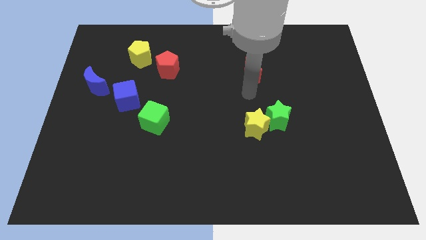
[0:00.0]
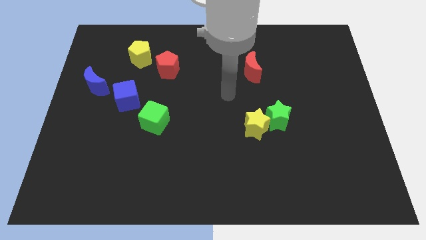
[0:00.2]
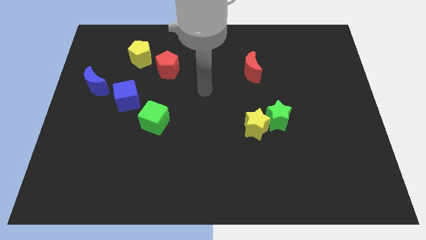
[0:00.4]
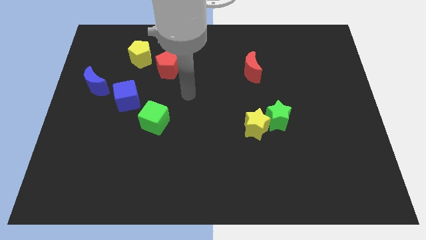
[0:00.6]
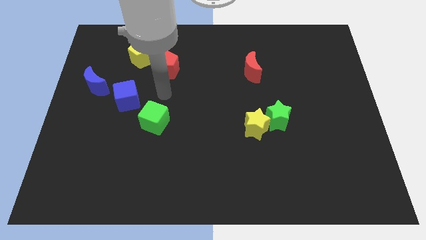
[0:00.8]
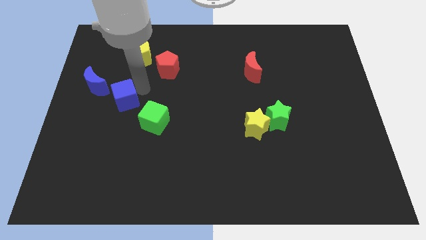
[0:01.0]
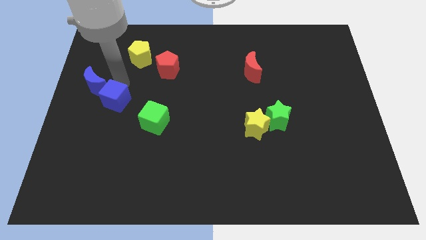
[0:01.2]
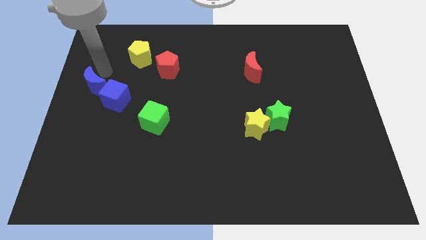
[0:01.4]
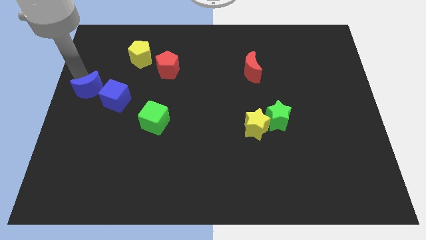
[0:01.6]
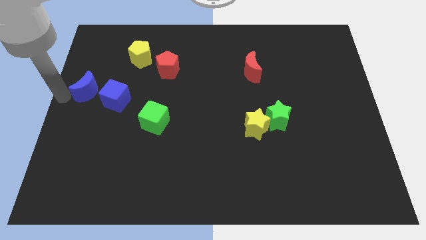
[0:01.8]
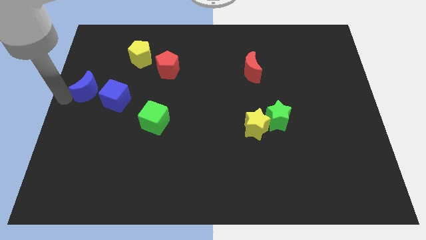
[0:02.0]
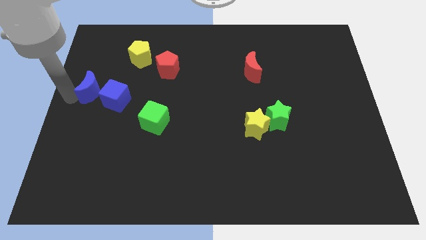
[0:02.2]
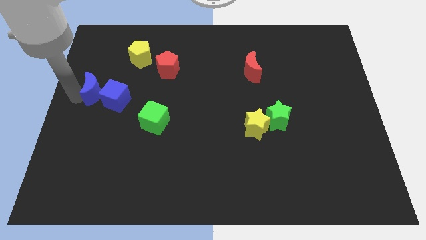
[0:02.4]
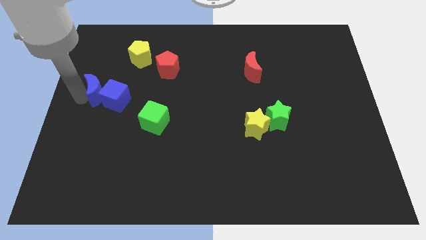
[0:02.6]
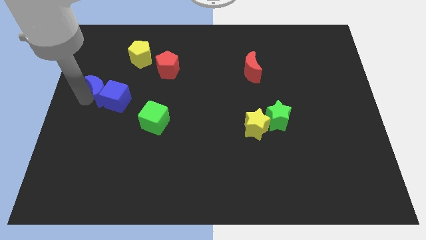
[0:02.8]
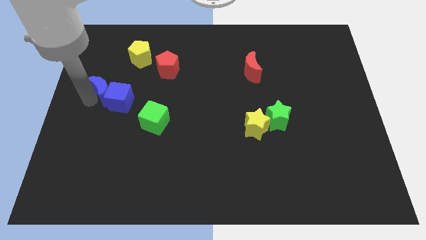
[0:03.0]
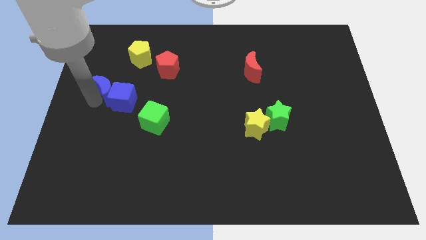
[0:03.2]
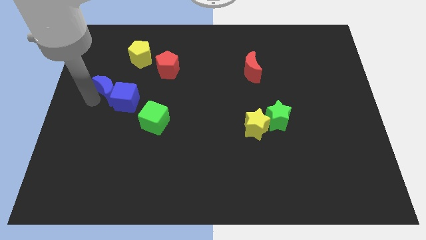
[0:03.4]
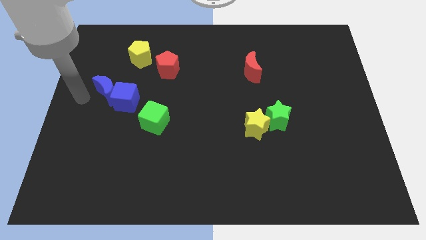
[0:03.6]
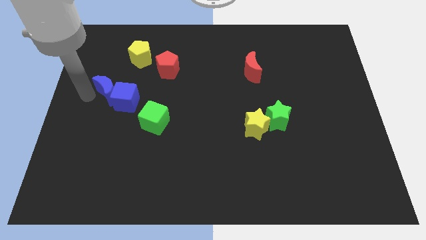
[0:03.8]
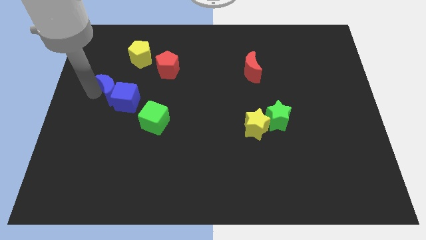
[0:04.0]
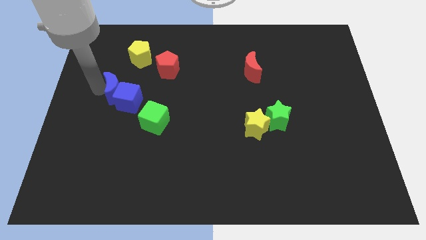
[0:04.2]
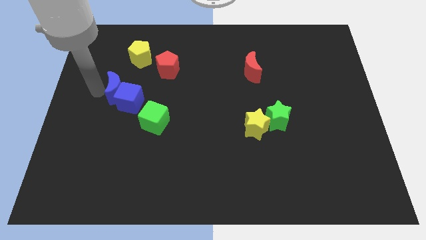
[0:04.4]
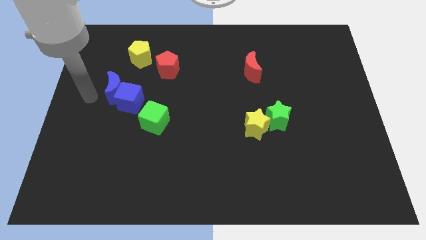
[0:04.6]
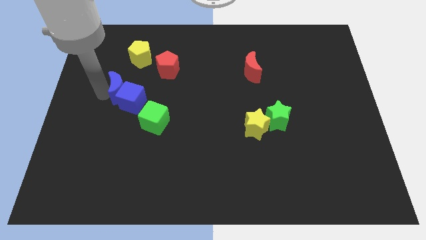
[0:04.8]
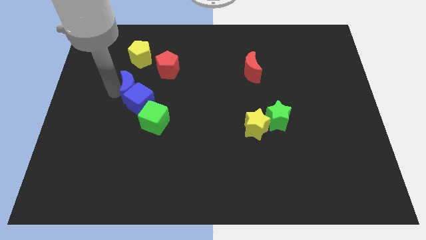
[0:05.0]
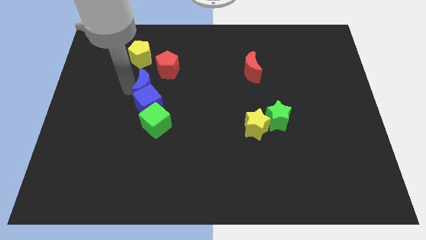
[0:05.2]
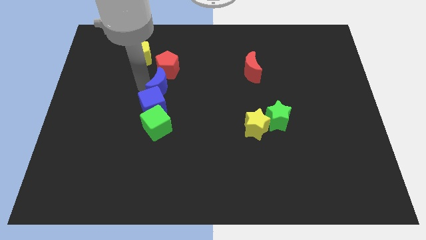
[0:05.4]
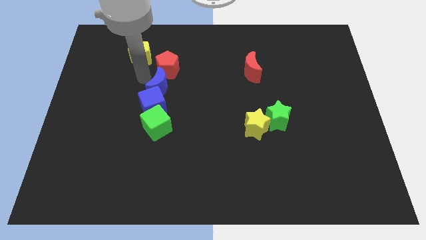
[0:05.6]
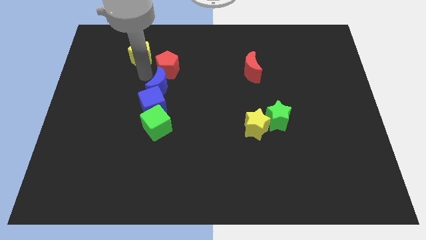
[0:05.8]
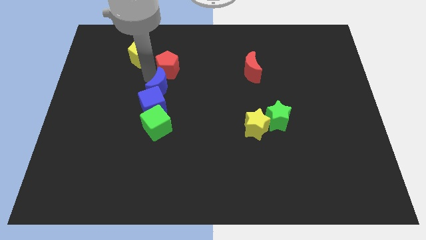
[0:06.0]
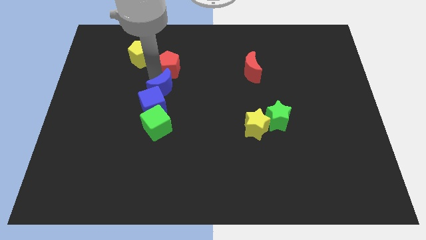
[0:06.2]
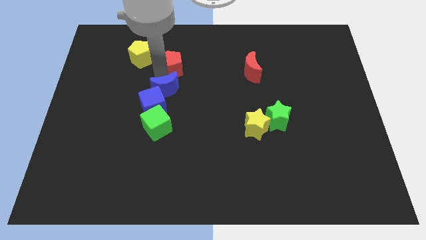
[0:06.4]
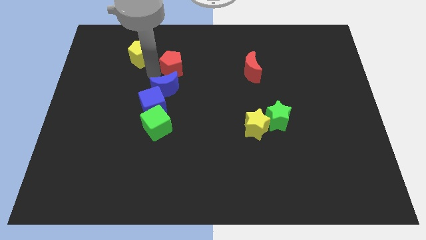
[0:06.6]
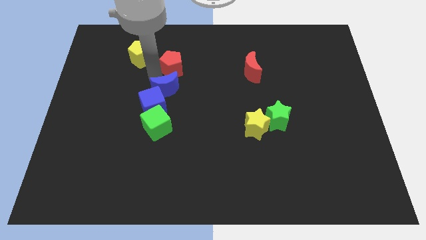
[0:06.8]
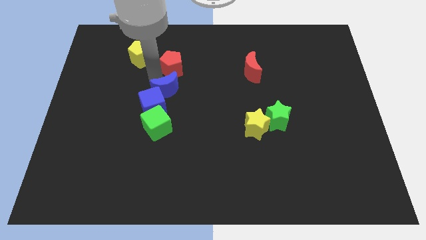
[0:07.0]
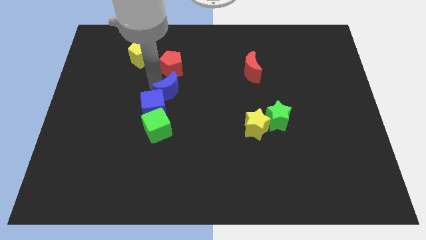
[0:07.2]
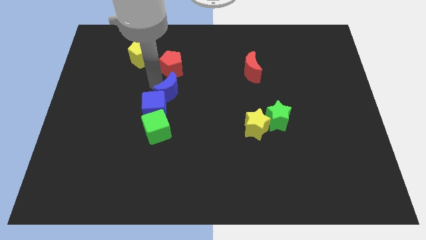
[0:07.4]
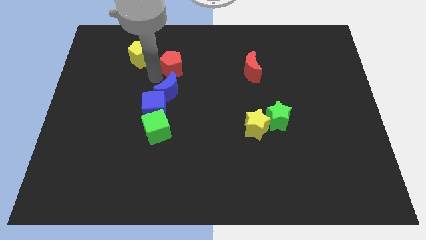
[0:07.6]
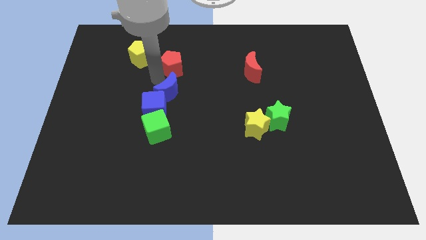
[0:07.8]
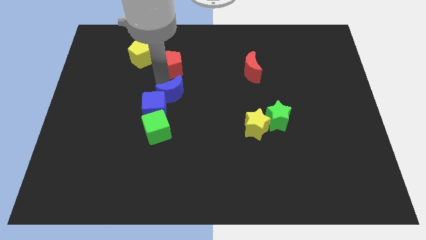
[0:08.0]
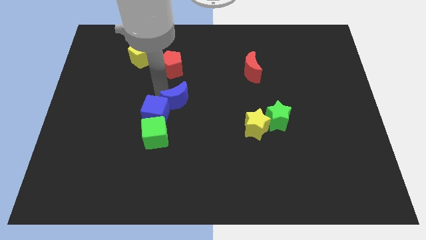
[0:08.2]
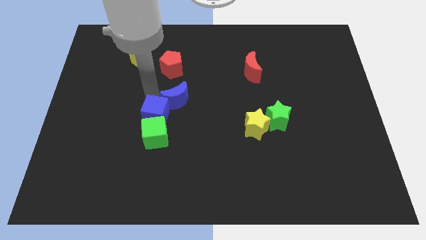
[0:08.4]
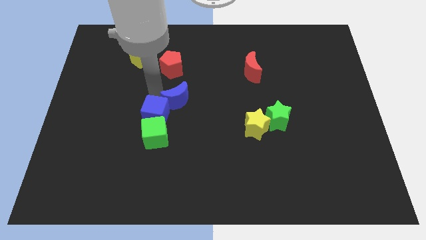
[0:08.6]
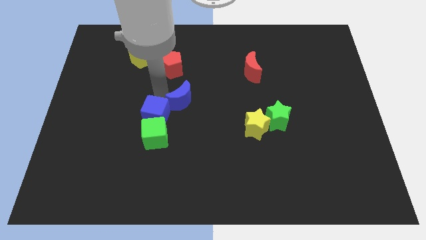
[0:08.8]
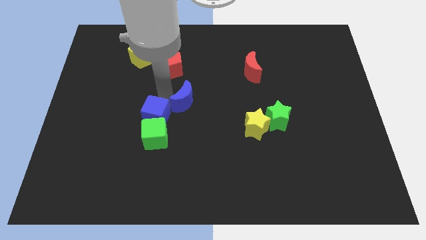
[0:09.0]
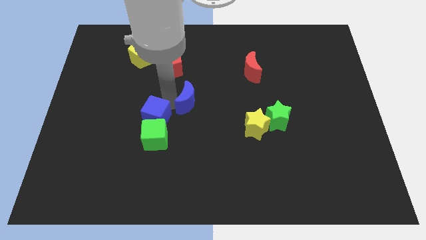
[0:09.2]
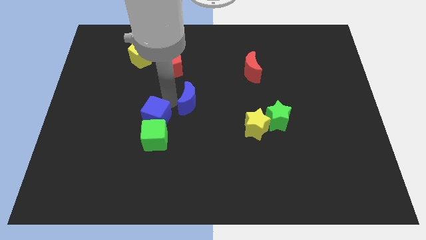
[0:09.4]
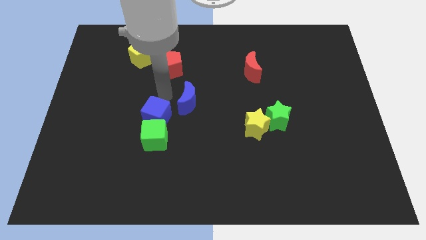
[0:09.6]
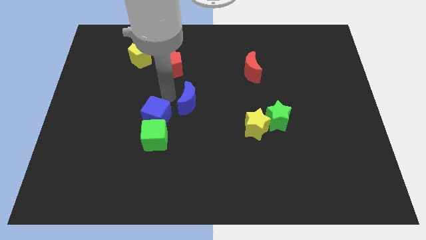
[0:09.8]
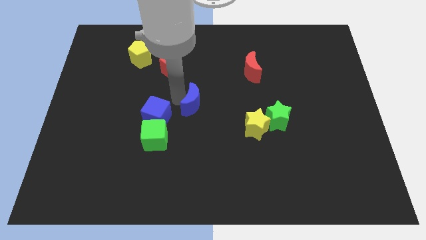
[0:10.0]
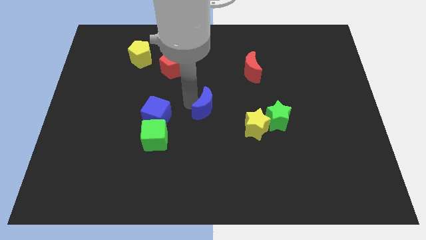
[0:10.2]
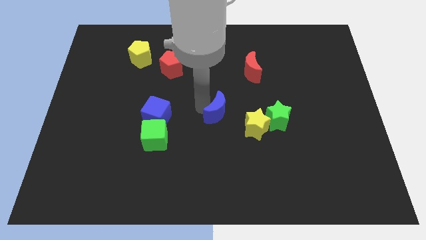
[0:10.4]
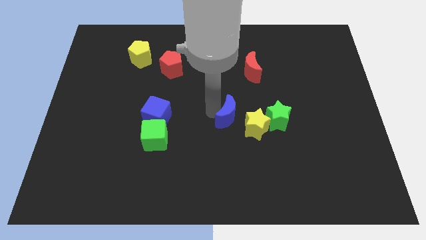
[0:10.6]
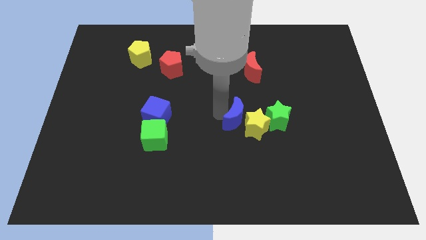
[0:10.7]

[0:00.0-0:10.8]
slide the blue moon close to the yellow star

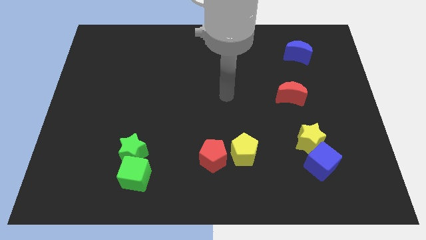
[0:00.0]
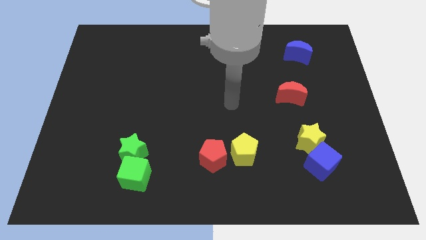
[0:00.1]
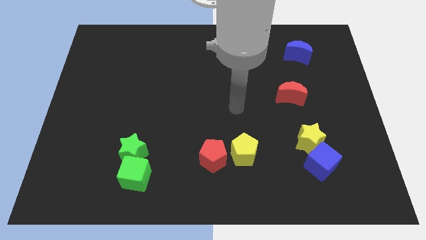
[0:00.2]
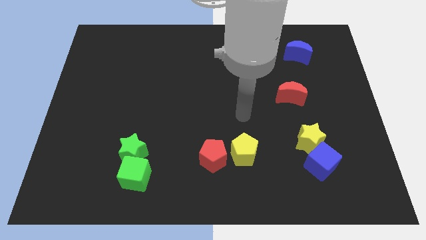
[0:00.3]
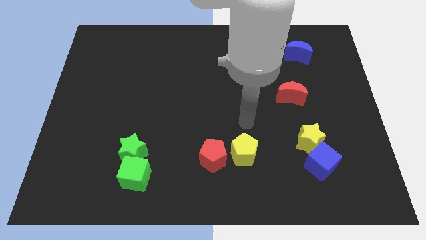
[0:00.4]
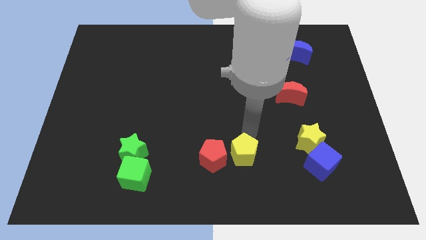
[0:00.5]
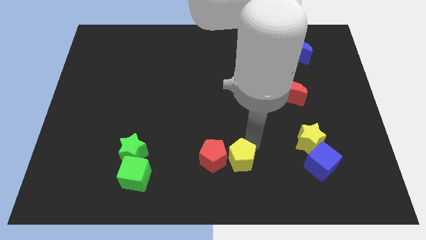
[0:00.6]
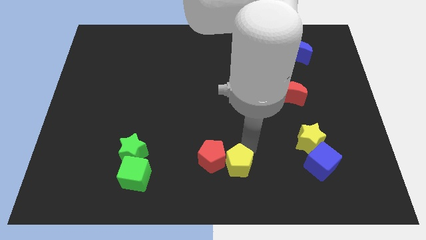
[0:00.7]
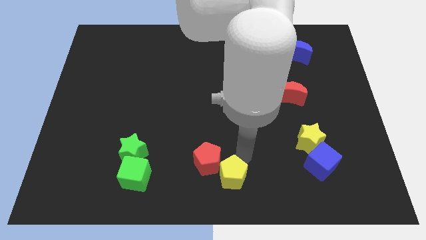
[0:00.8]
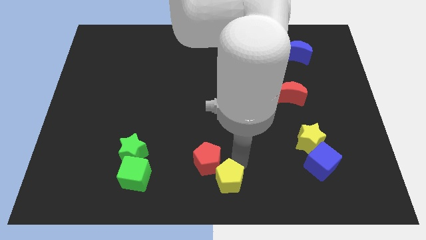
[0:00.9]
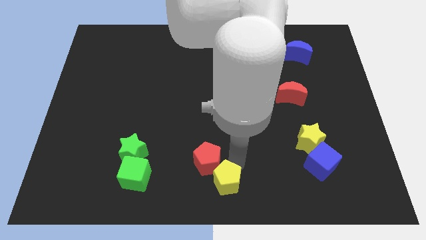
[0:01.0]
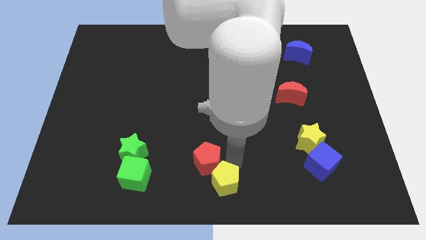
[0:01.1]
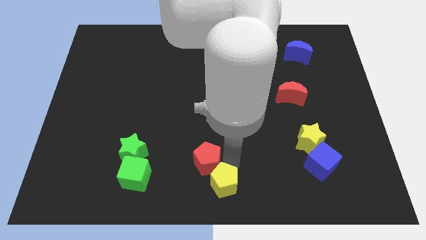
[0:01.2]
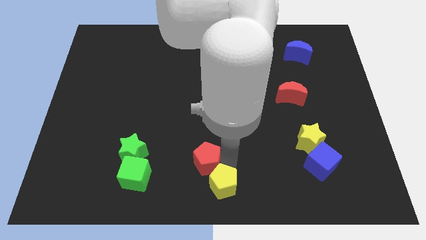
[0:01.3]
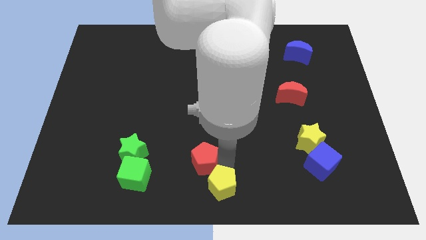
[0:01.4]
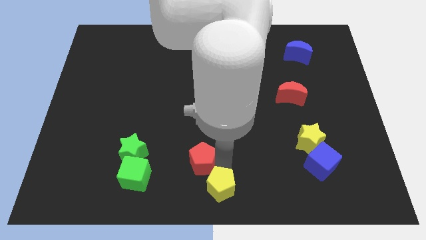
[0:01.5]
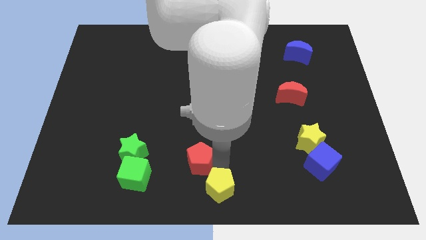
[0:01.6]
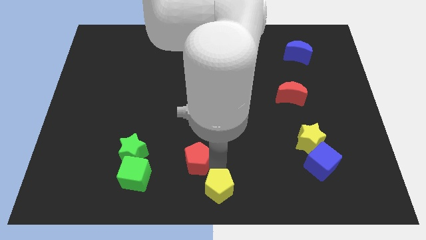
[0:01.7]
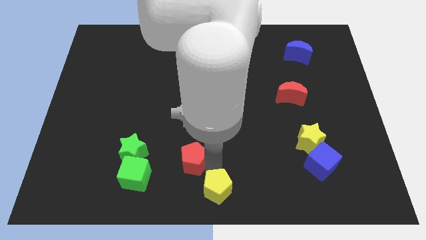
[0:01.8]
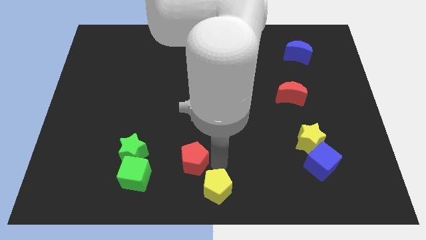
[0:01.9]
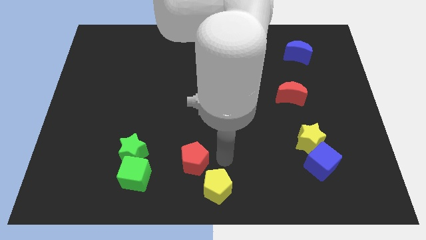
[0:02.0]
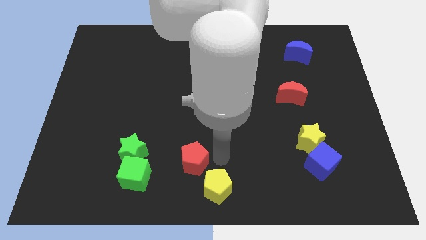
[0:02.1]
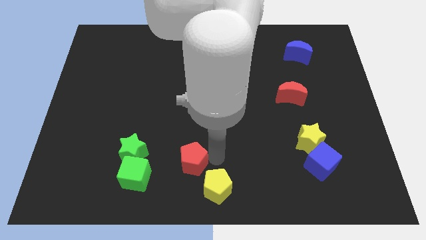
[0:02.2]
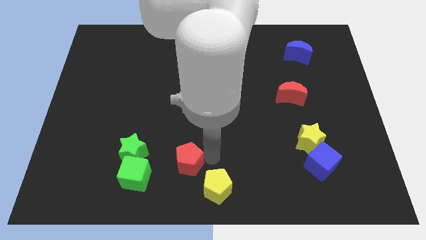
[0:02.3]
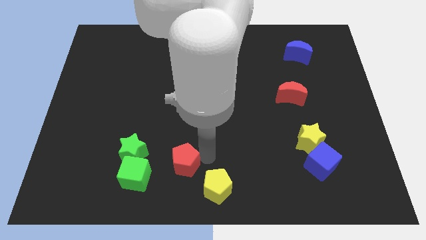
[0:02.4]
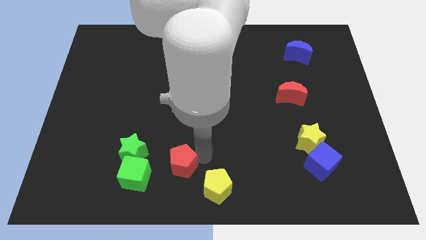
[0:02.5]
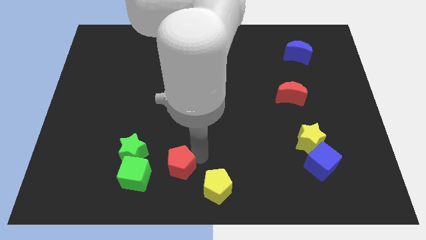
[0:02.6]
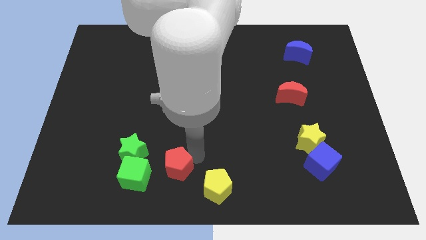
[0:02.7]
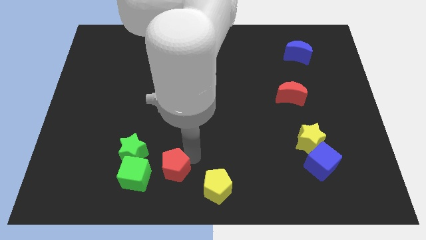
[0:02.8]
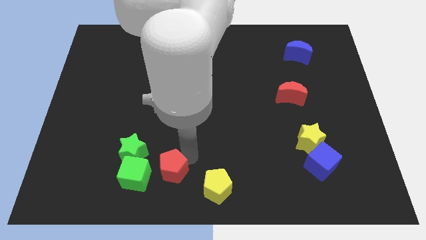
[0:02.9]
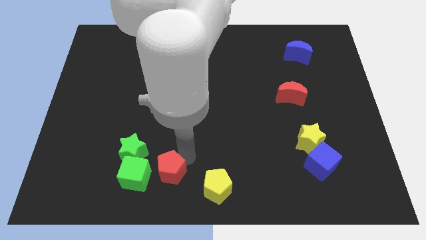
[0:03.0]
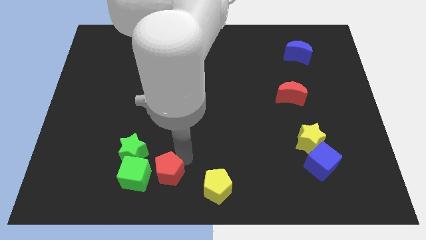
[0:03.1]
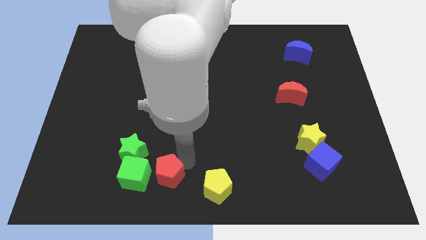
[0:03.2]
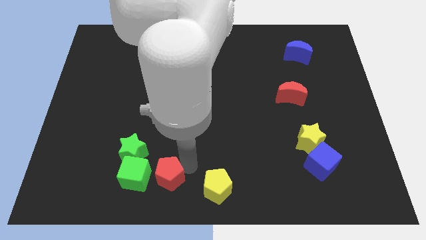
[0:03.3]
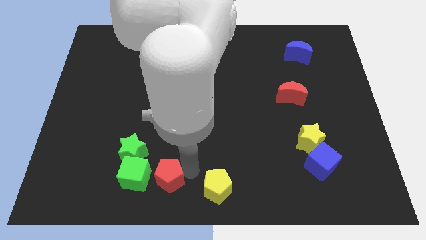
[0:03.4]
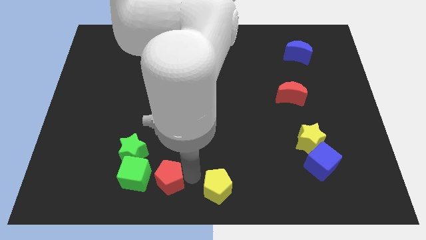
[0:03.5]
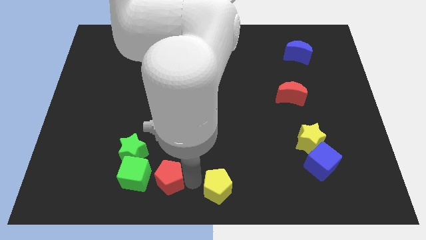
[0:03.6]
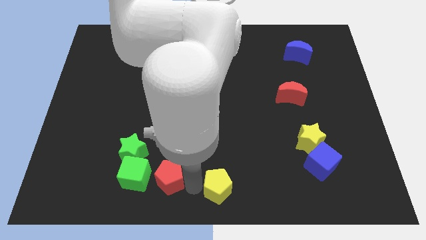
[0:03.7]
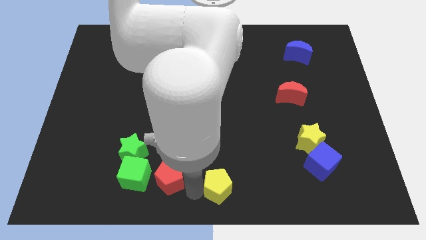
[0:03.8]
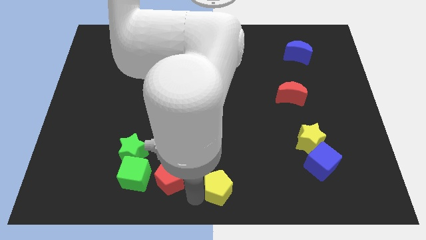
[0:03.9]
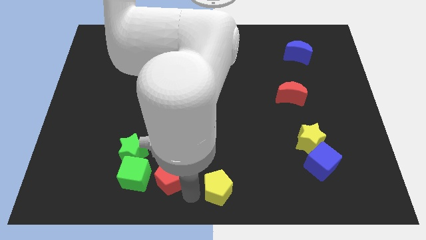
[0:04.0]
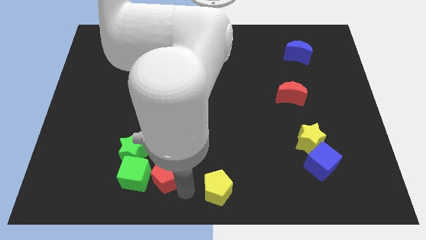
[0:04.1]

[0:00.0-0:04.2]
move the red pentagon close to the green cube
